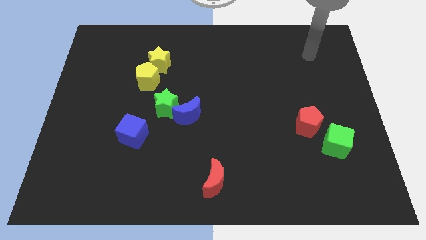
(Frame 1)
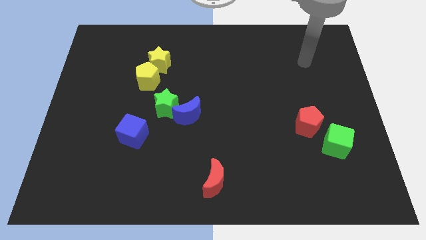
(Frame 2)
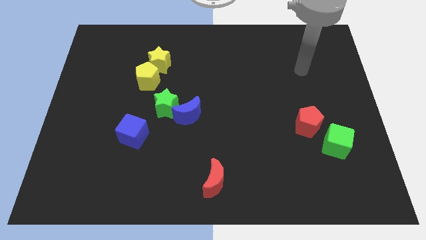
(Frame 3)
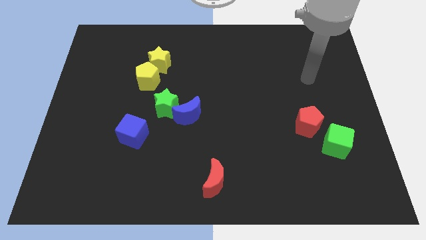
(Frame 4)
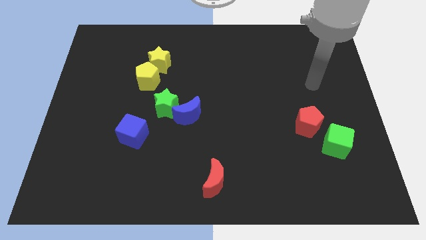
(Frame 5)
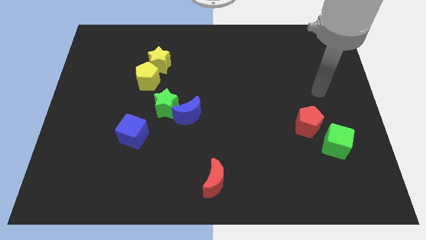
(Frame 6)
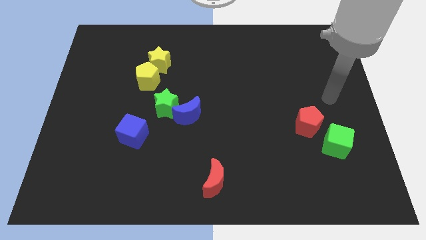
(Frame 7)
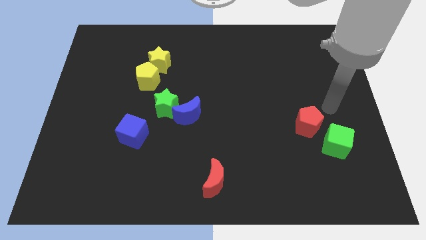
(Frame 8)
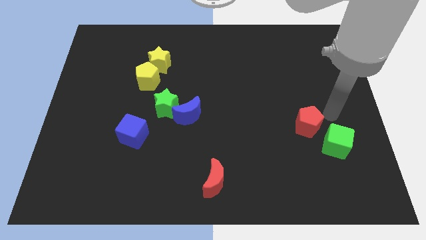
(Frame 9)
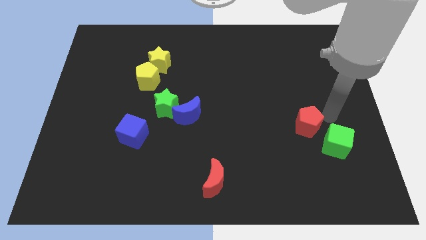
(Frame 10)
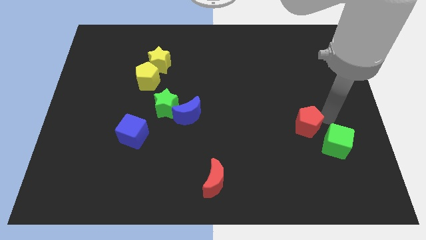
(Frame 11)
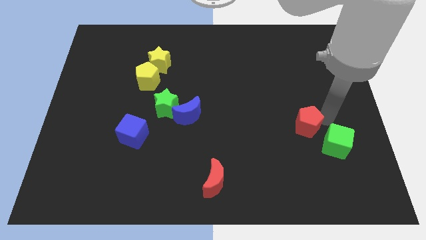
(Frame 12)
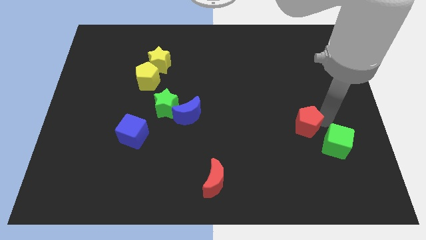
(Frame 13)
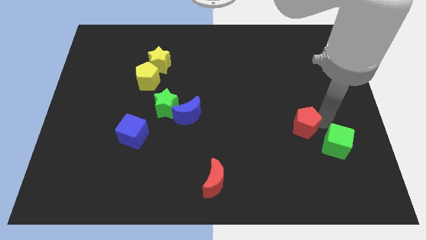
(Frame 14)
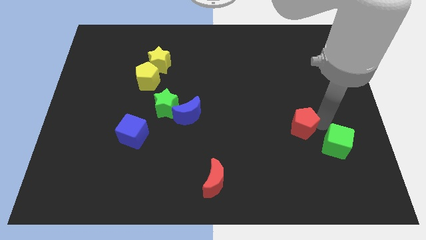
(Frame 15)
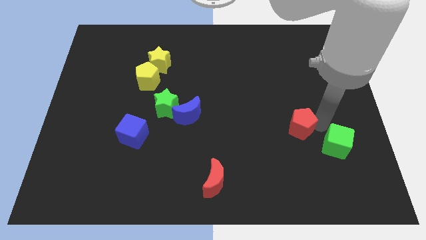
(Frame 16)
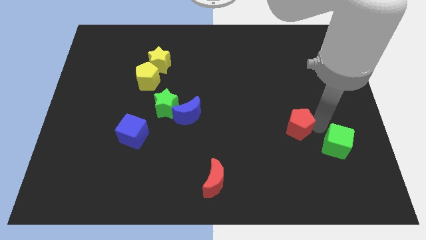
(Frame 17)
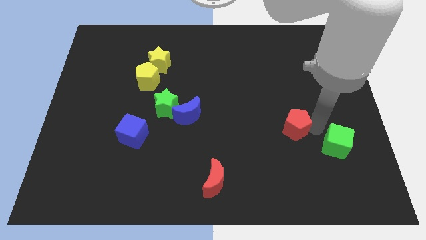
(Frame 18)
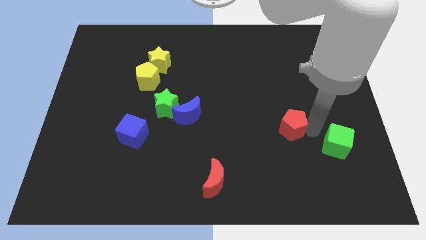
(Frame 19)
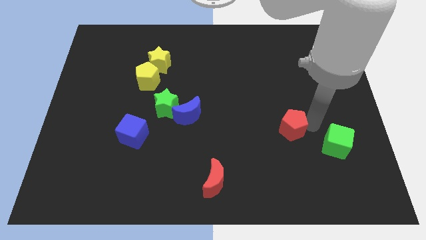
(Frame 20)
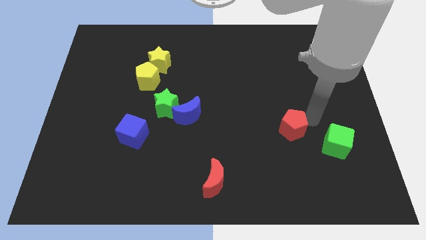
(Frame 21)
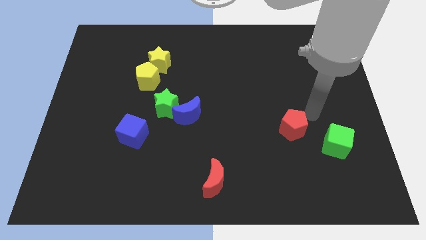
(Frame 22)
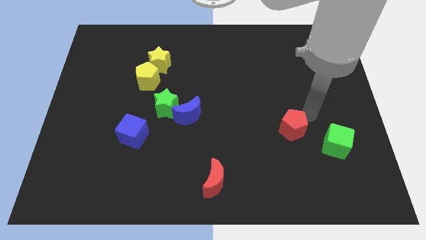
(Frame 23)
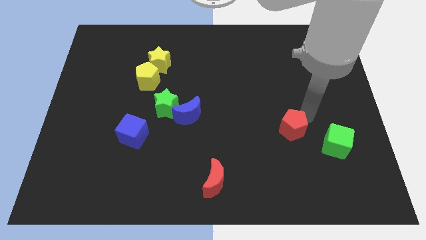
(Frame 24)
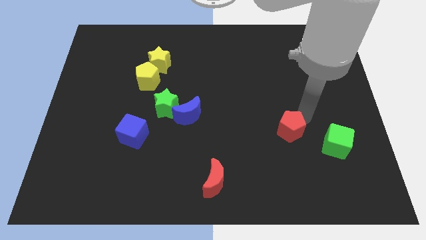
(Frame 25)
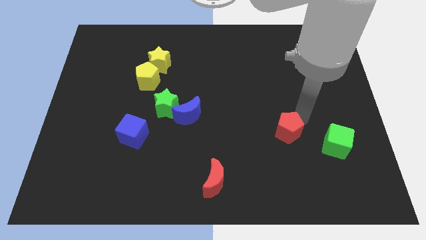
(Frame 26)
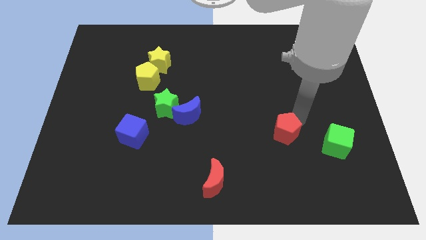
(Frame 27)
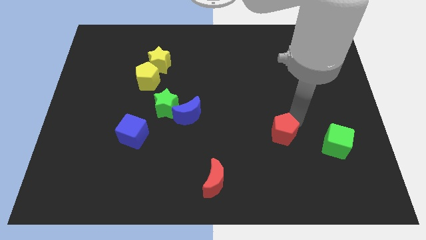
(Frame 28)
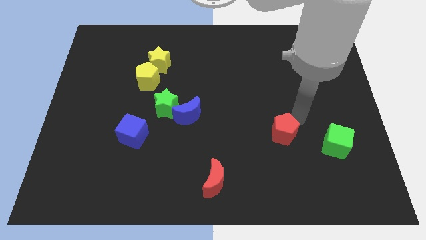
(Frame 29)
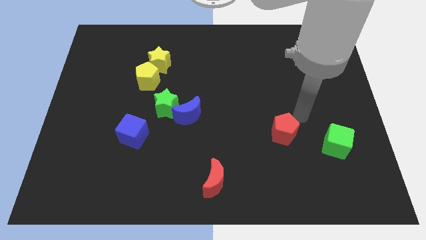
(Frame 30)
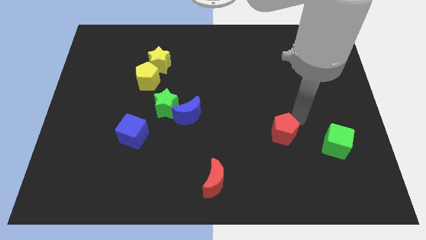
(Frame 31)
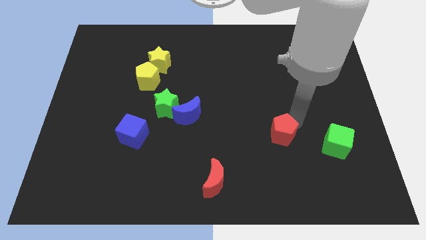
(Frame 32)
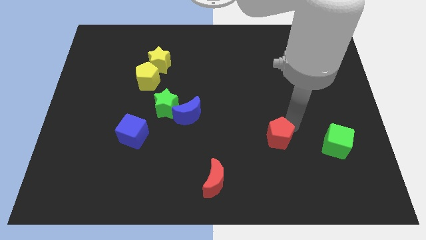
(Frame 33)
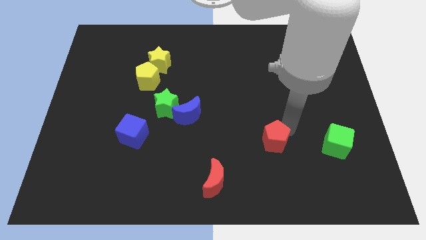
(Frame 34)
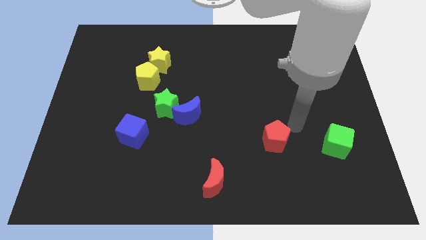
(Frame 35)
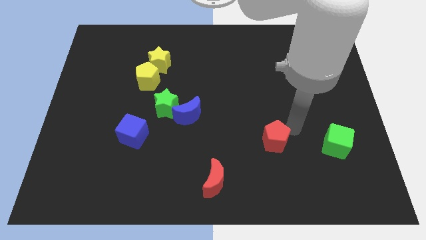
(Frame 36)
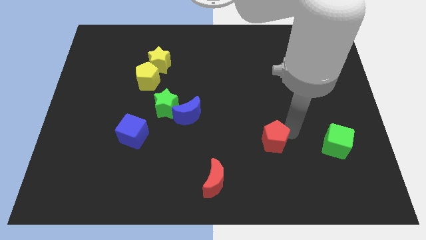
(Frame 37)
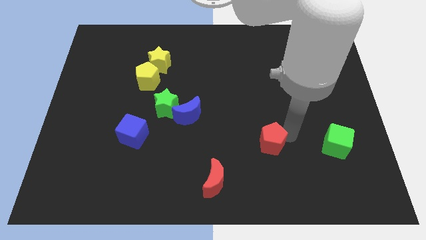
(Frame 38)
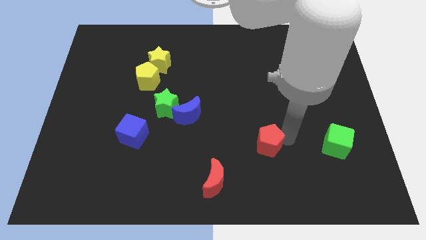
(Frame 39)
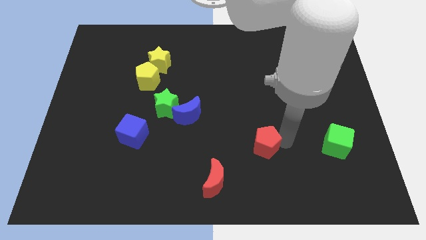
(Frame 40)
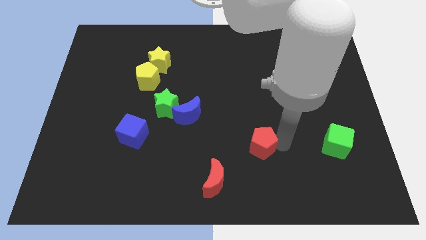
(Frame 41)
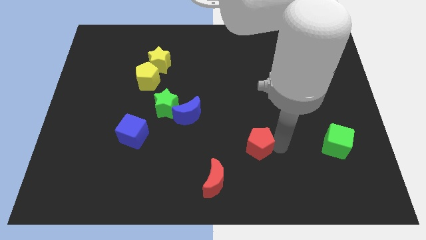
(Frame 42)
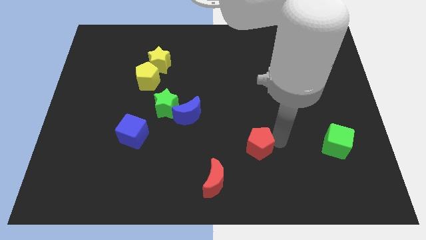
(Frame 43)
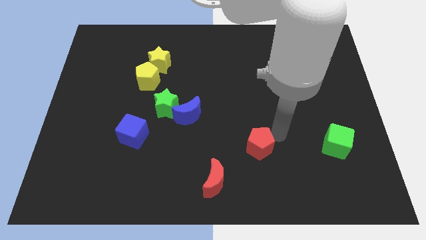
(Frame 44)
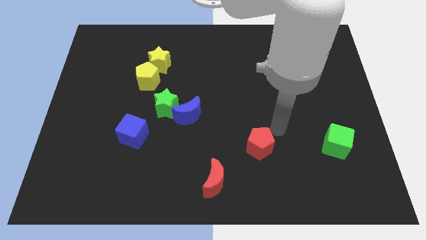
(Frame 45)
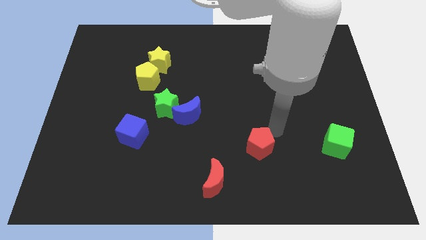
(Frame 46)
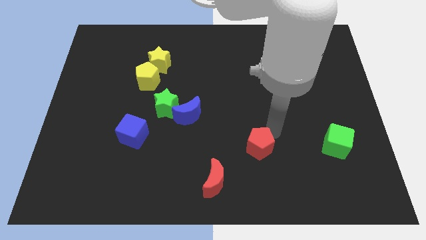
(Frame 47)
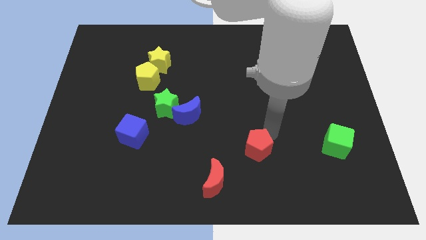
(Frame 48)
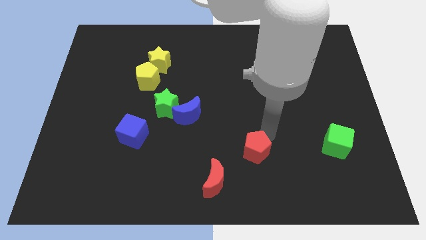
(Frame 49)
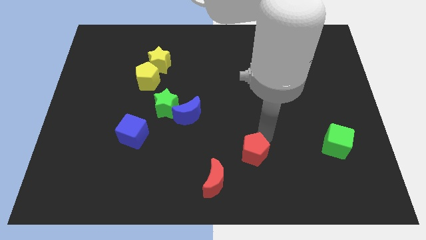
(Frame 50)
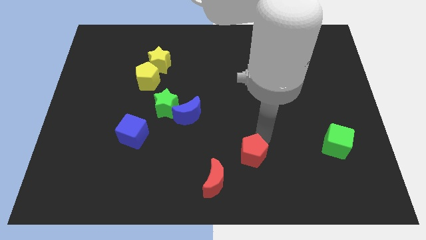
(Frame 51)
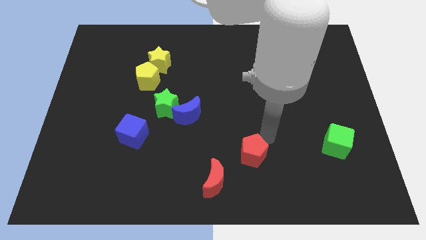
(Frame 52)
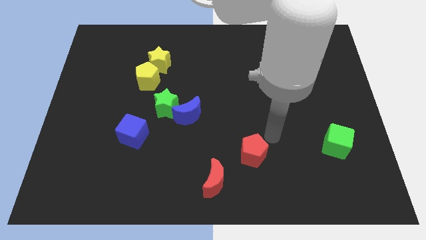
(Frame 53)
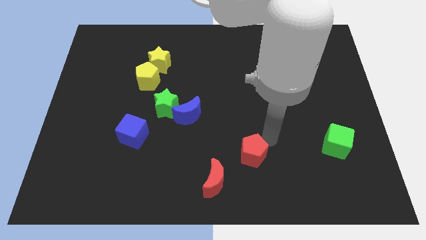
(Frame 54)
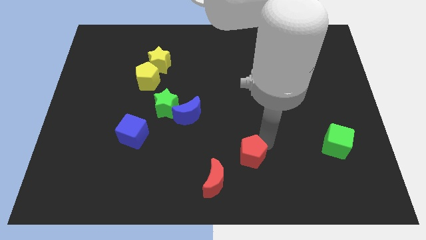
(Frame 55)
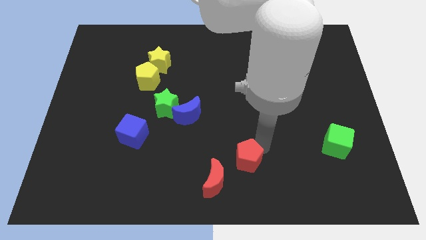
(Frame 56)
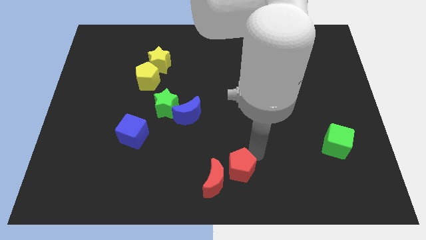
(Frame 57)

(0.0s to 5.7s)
slide the red pentagon close to the red moon
